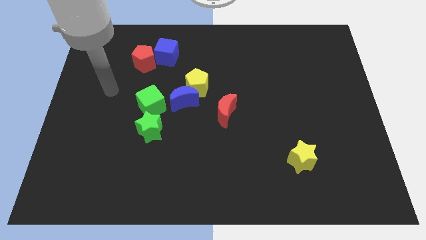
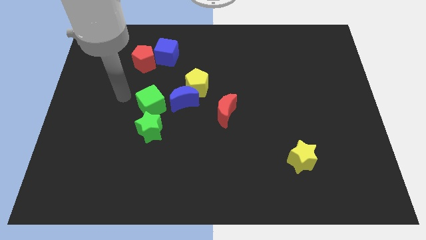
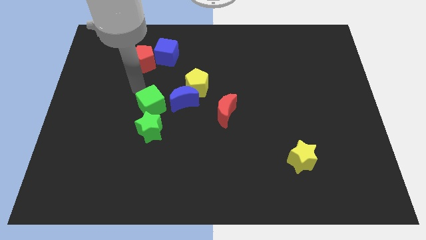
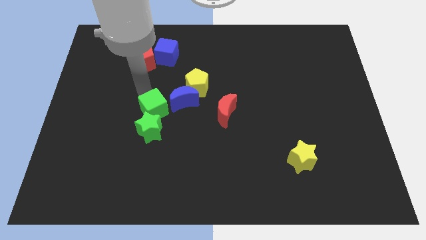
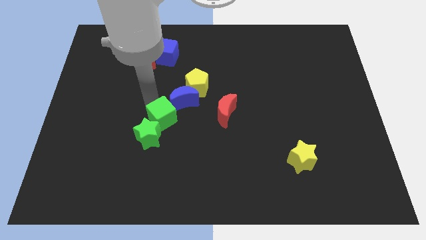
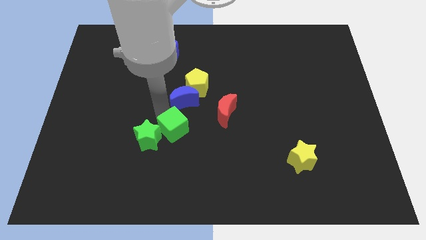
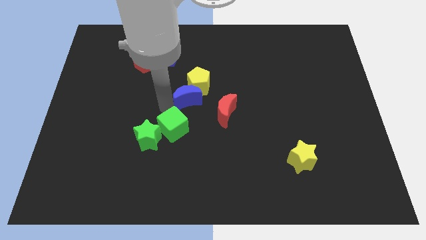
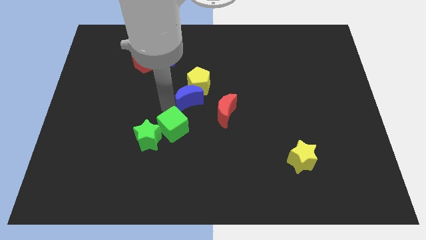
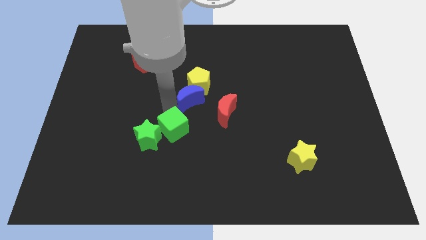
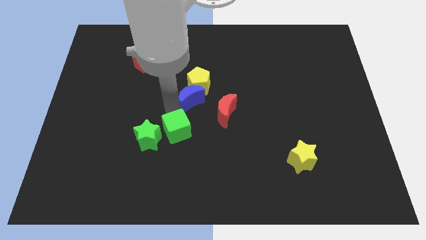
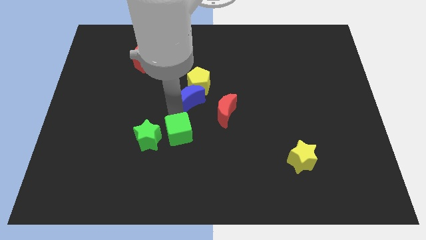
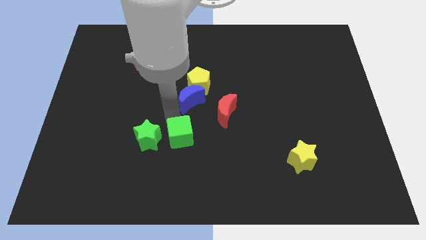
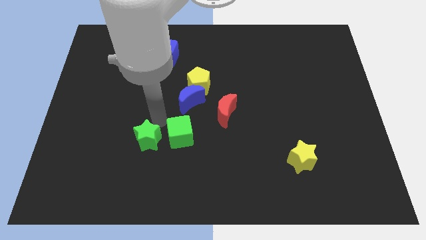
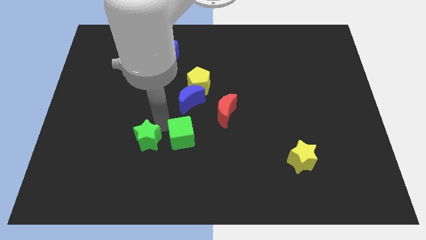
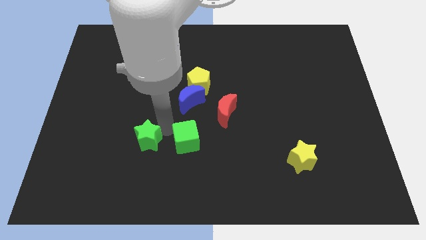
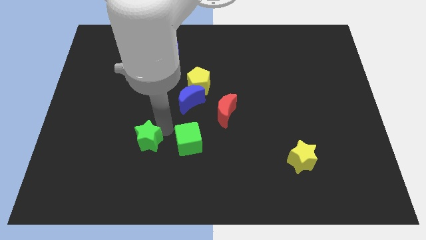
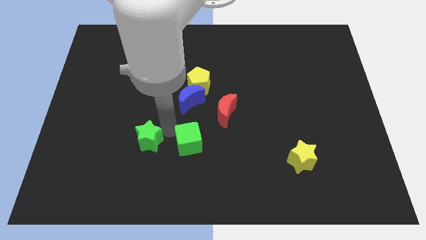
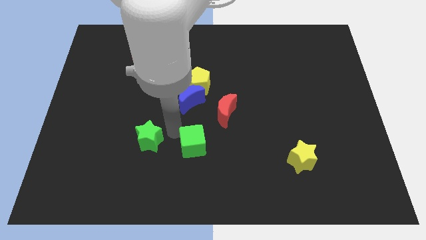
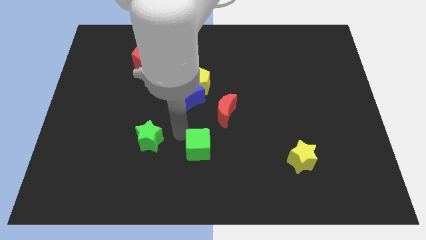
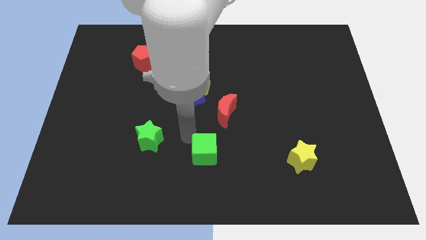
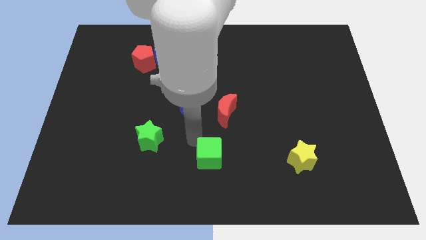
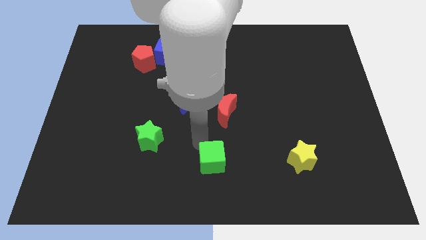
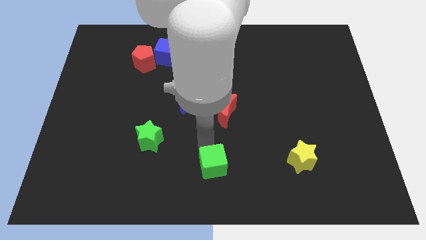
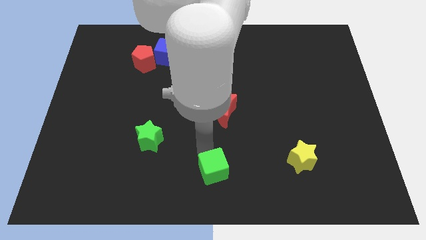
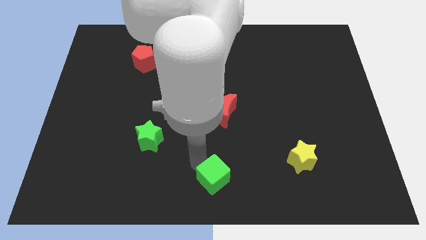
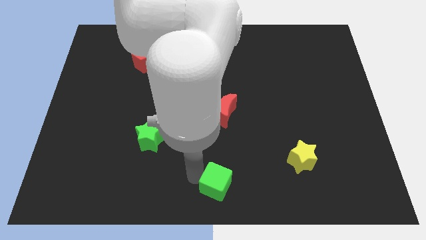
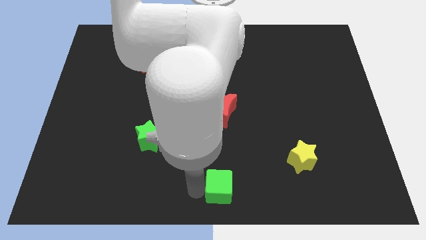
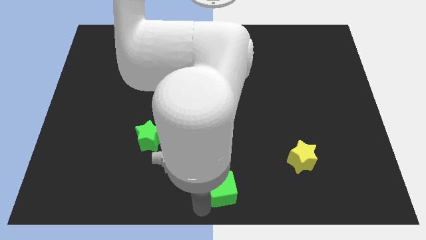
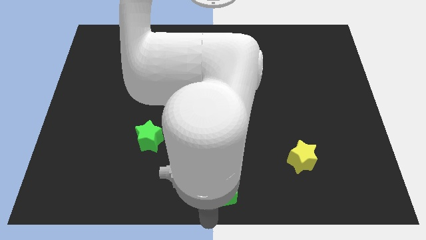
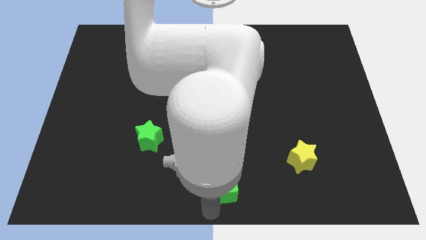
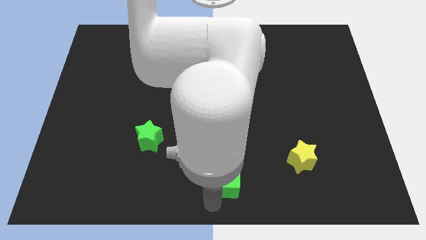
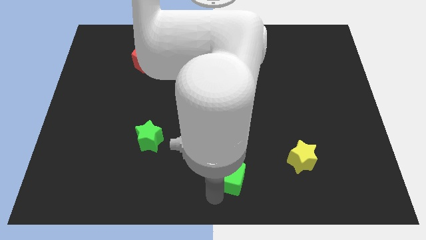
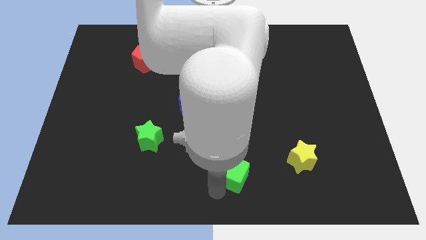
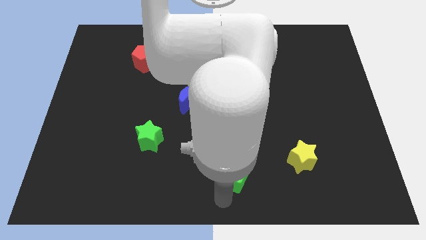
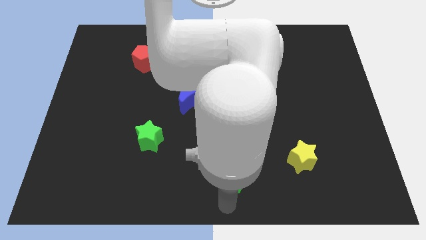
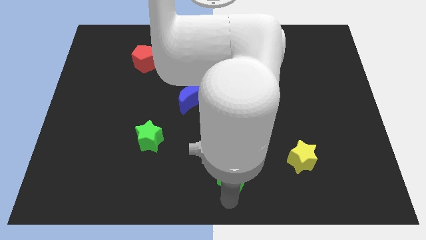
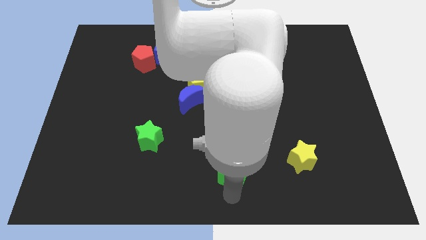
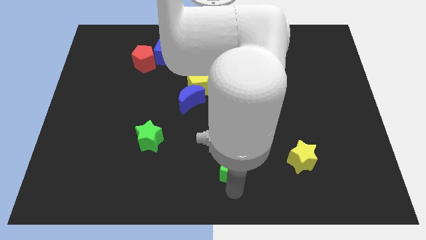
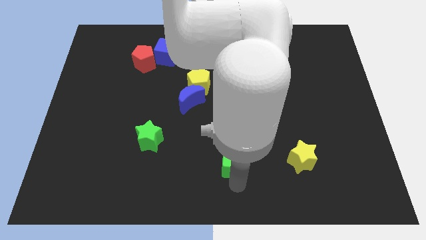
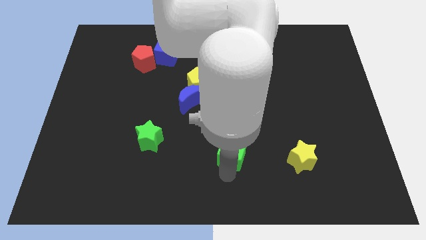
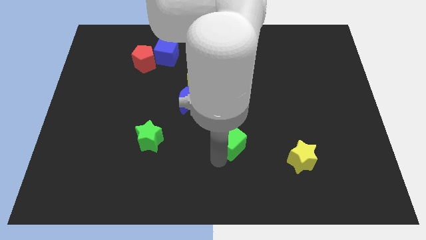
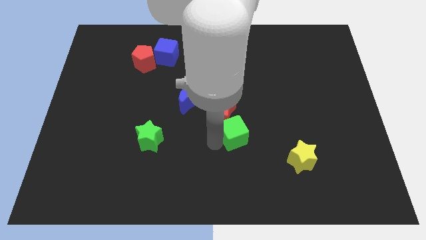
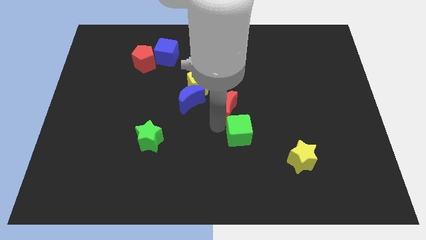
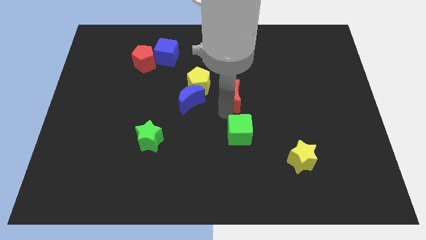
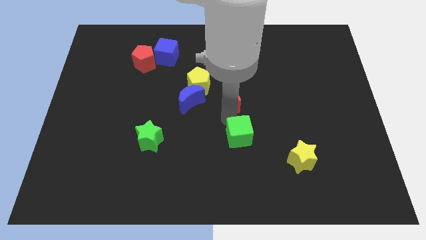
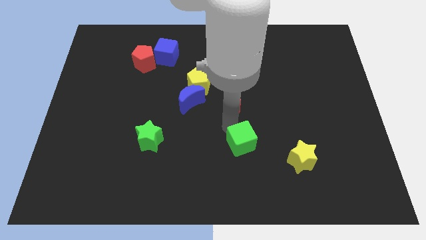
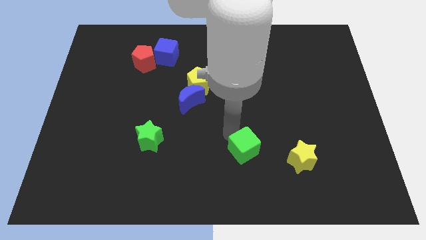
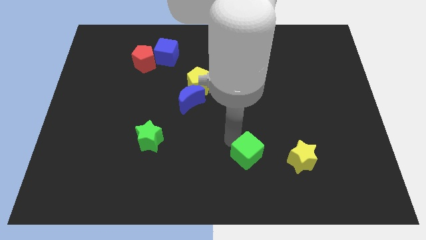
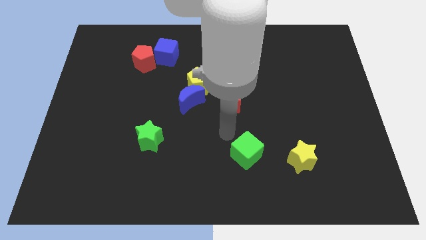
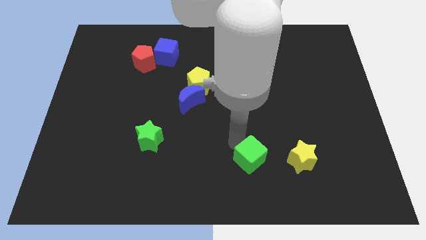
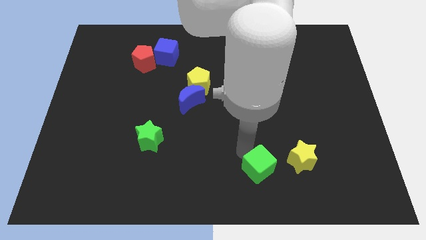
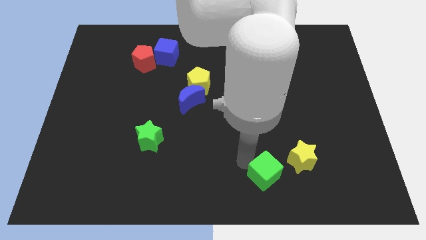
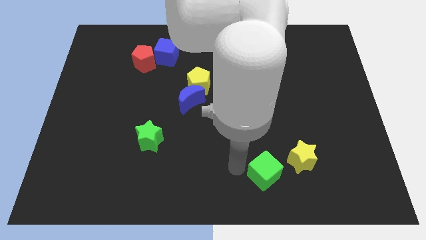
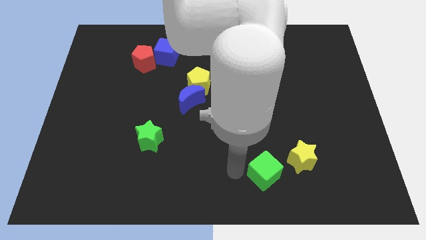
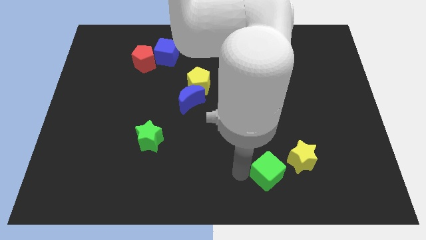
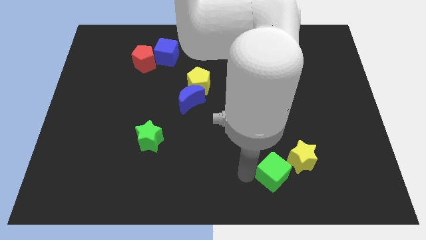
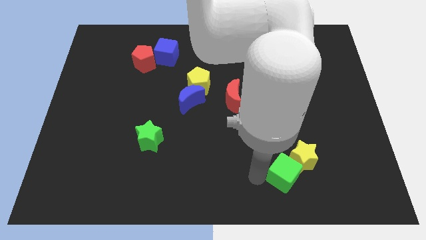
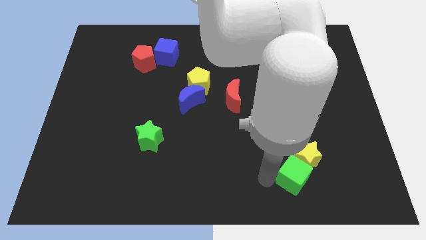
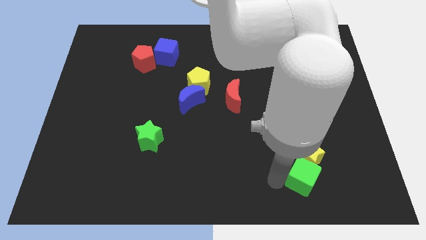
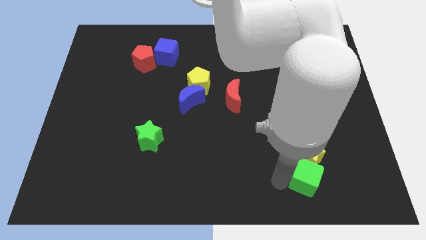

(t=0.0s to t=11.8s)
slide the green cube to the bottom right of the yellow star

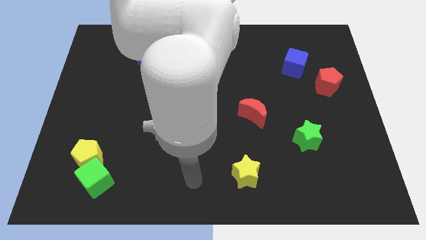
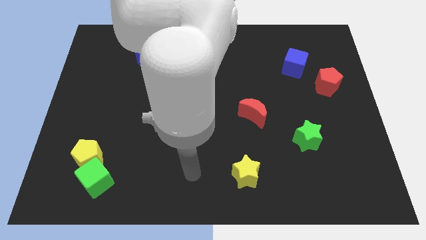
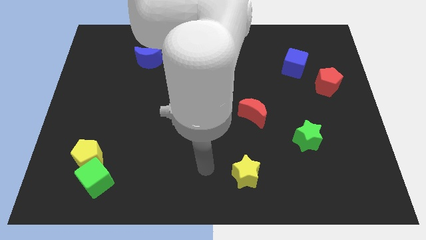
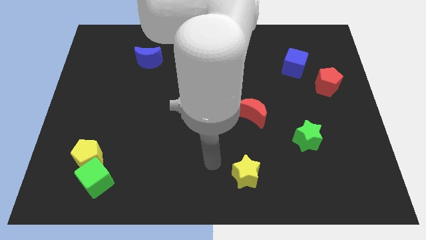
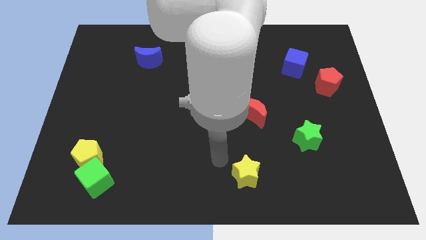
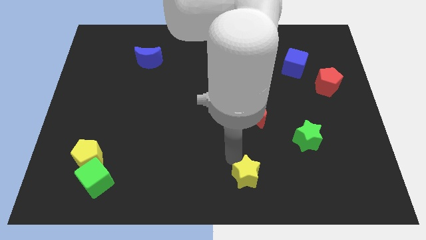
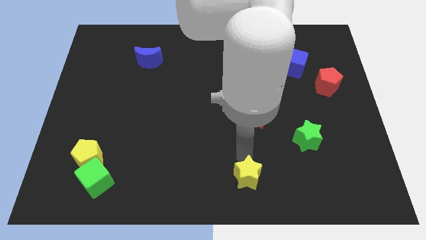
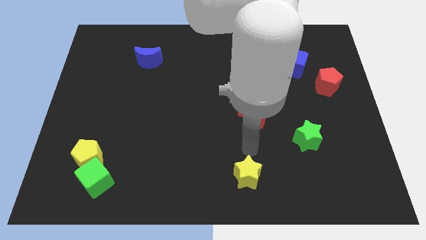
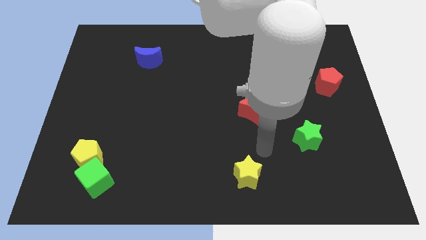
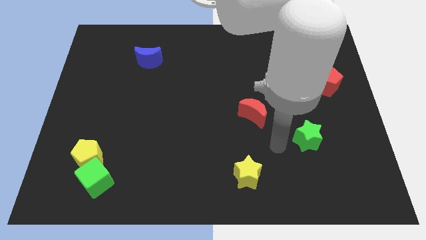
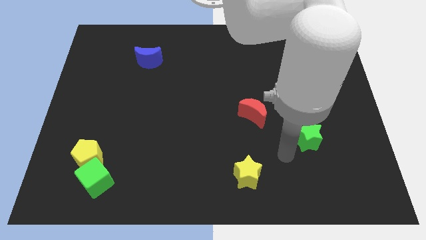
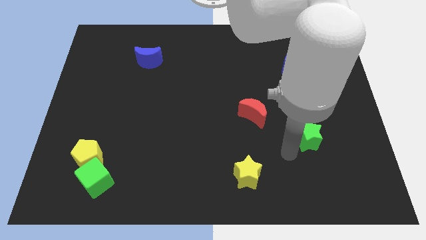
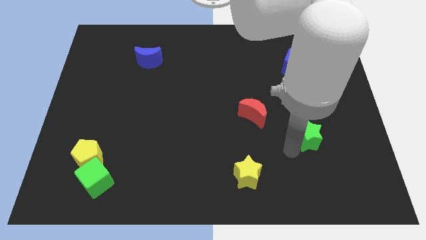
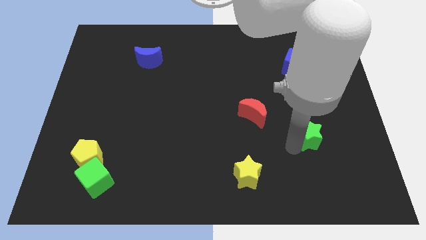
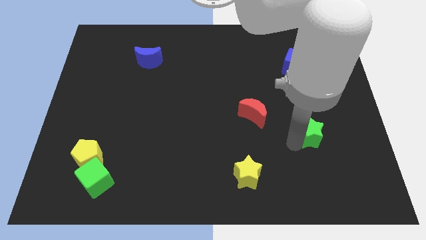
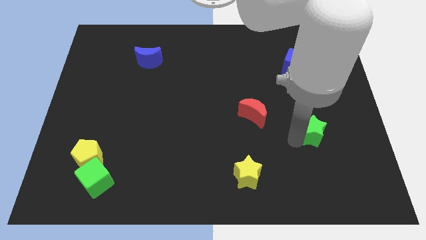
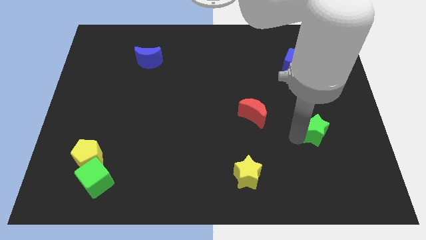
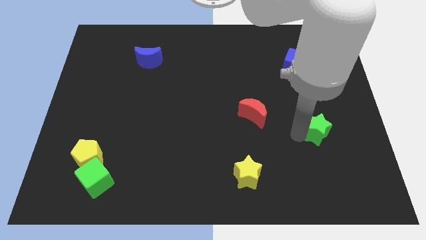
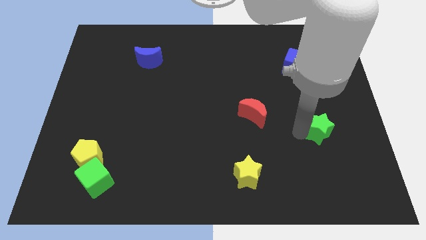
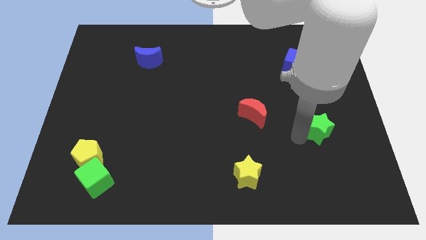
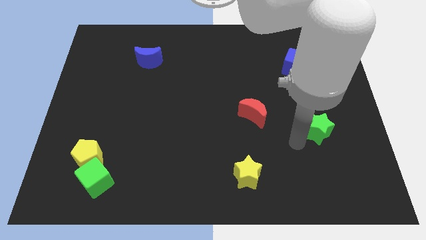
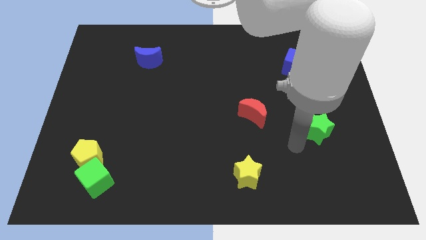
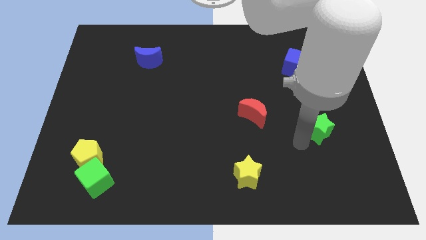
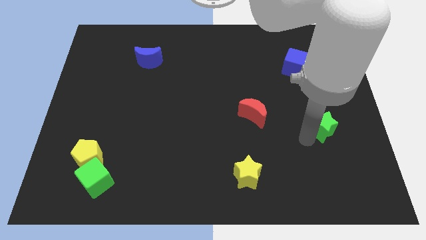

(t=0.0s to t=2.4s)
slide the green star below the red pentagon
